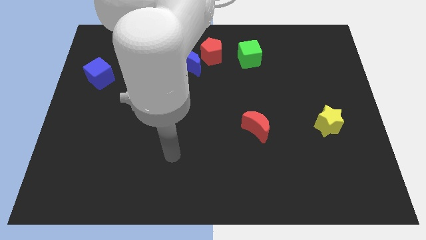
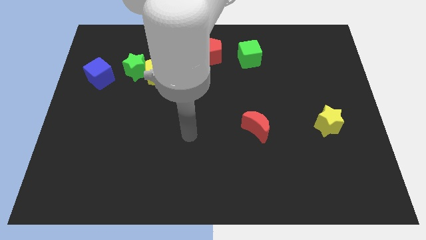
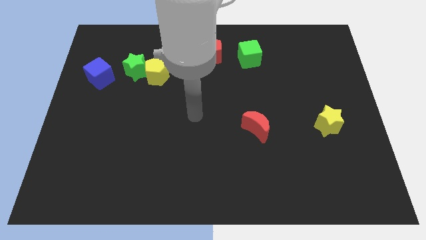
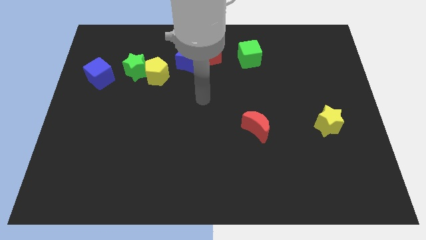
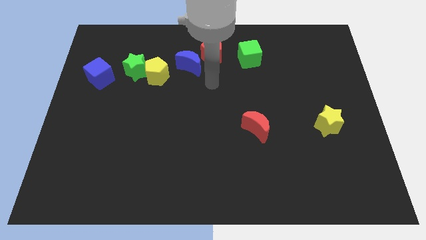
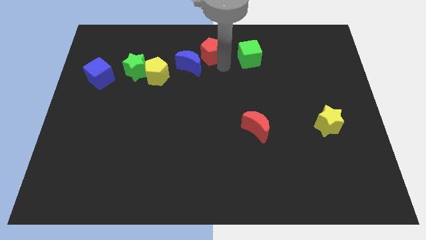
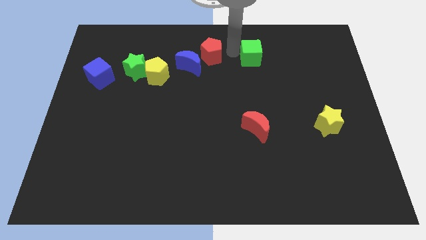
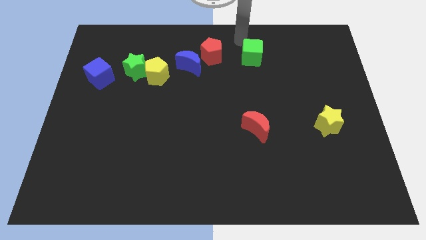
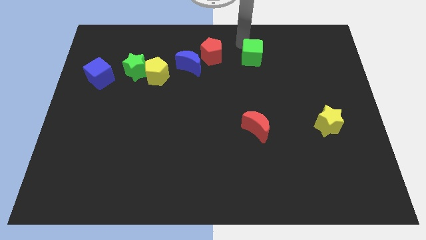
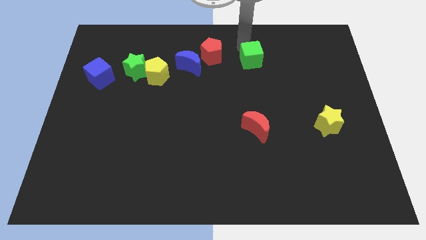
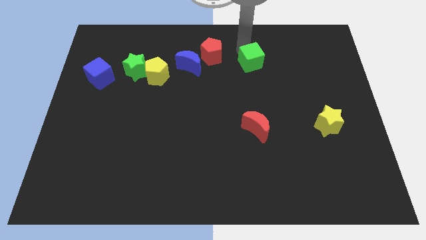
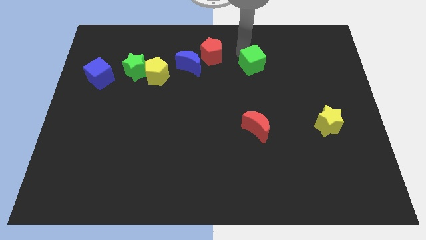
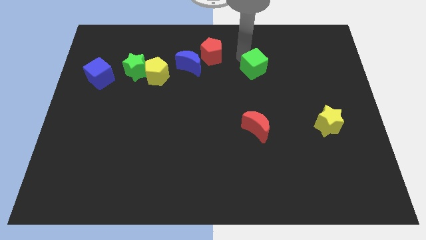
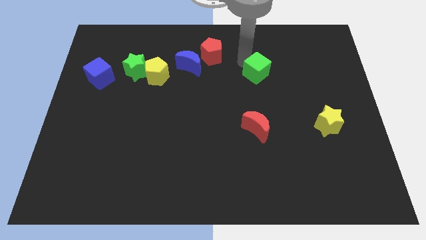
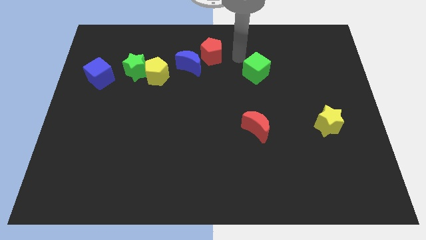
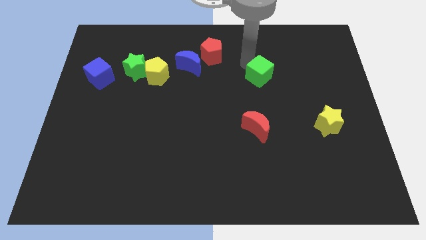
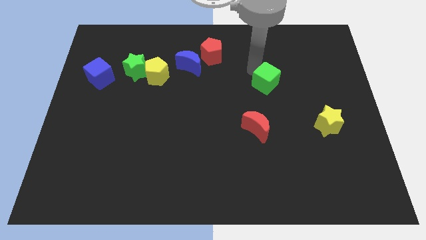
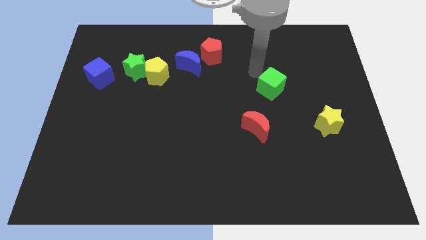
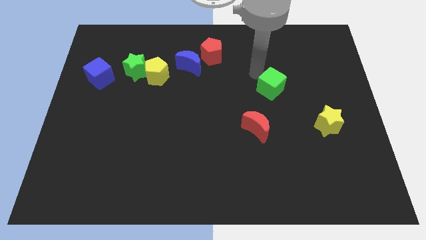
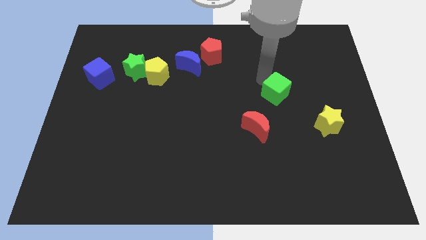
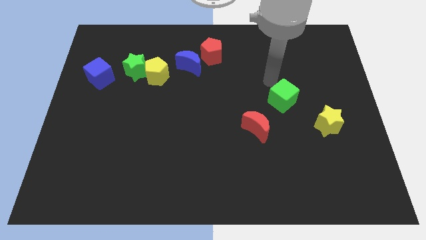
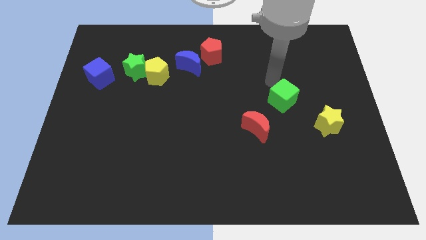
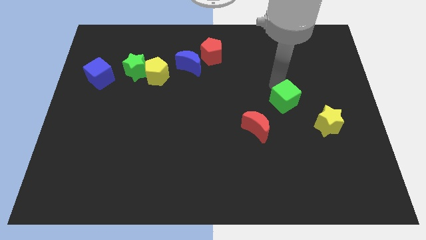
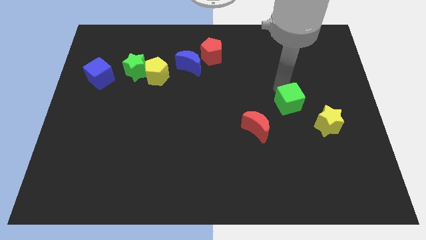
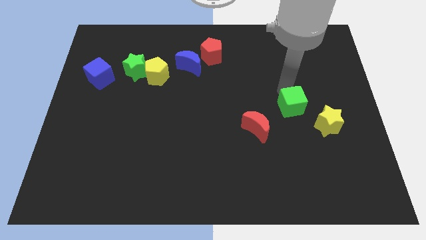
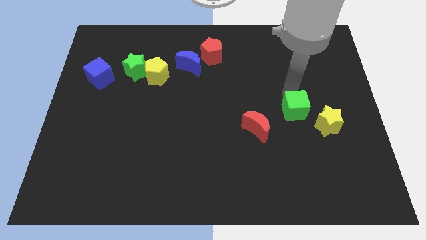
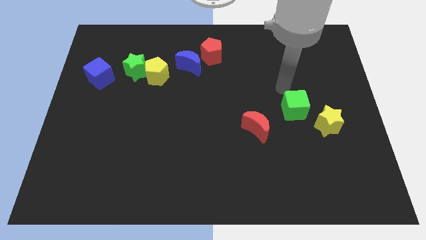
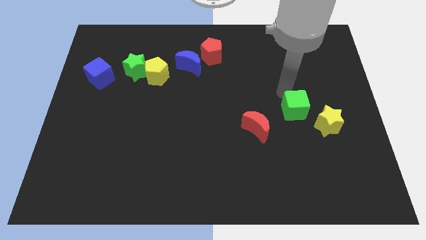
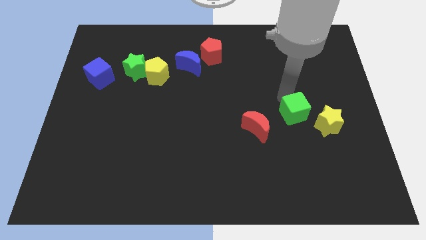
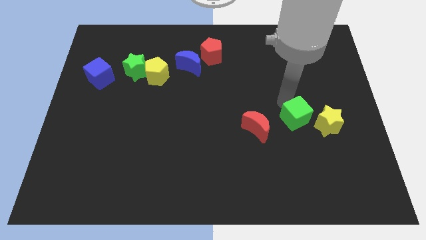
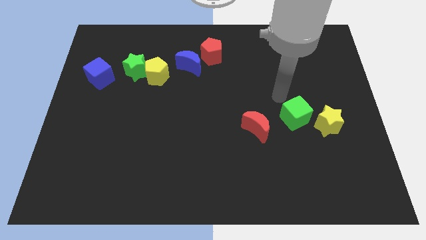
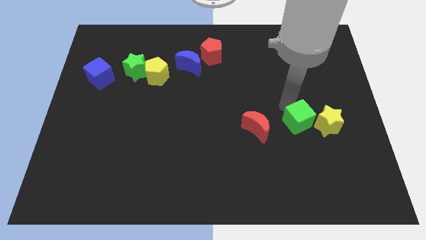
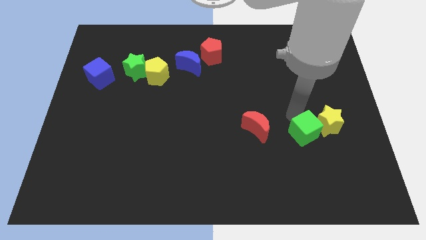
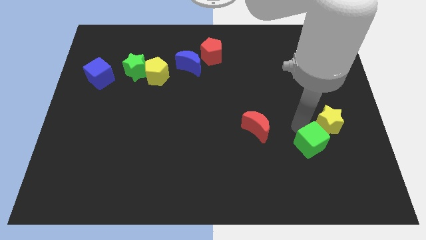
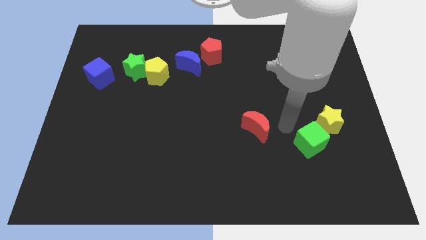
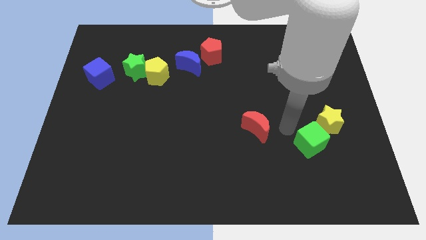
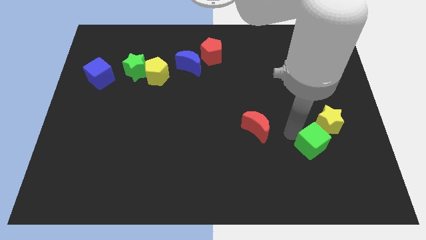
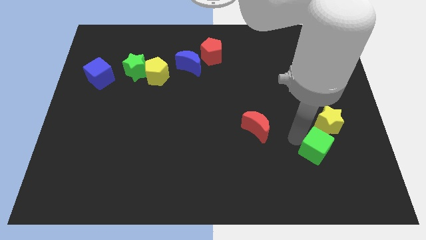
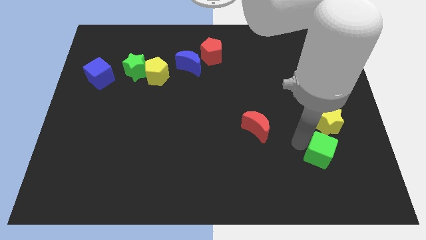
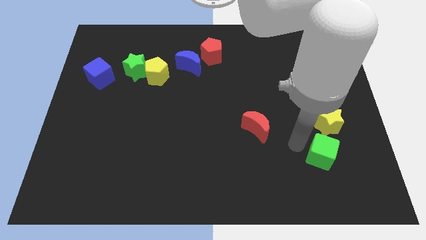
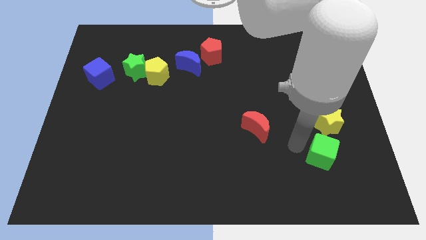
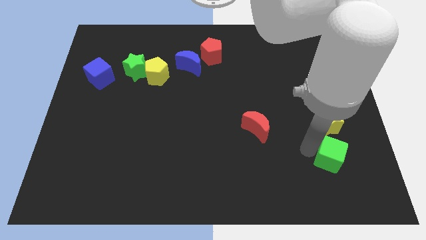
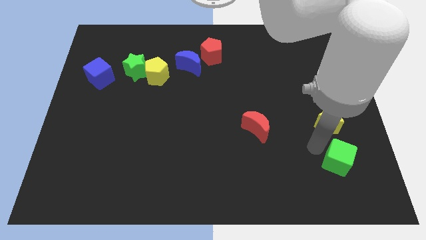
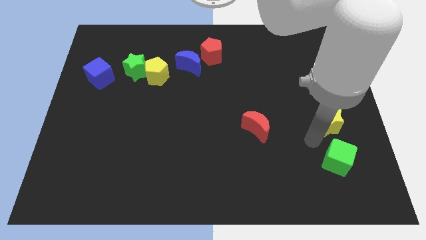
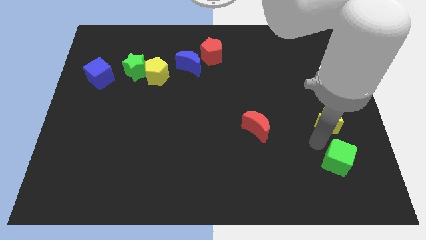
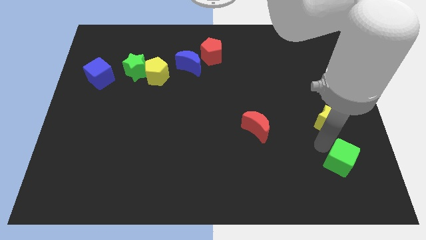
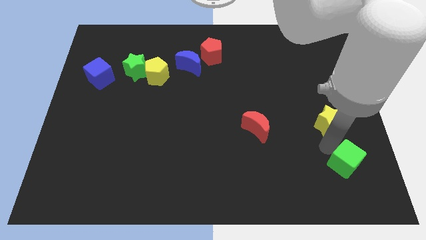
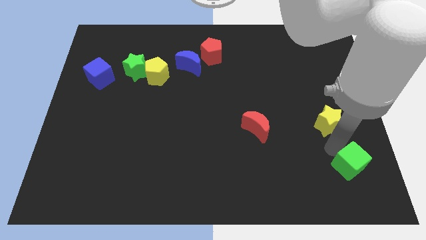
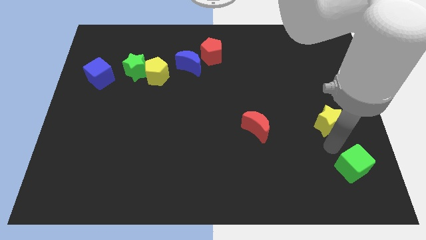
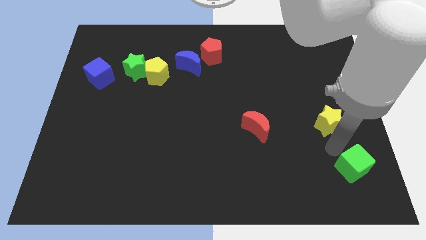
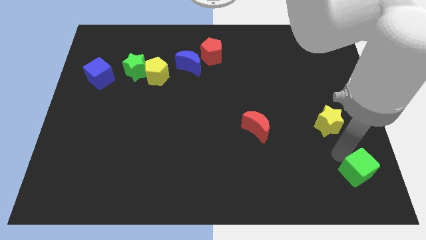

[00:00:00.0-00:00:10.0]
push the green cube to the bottom right corner

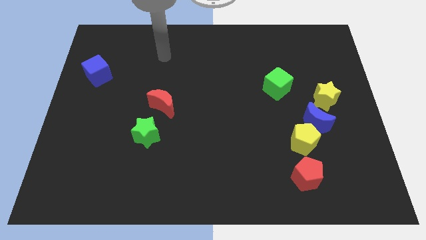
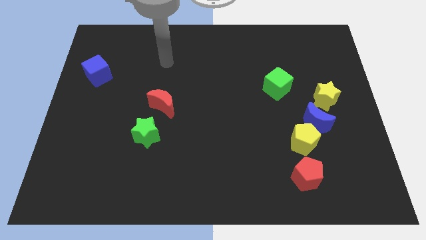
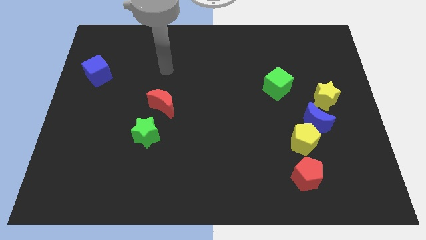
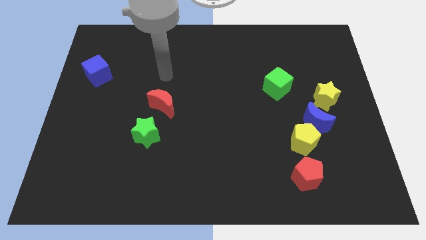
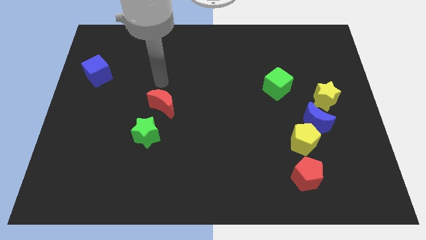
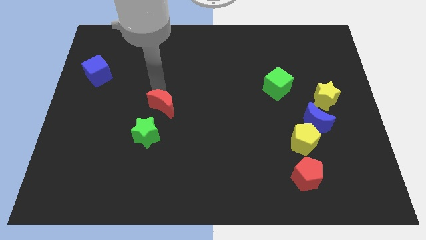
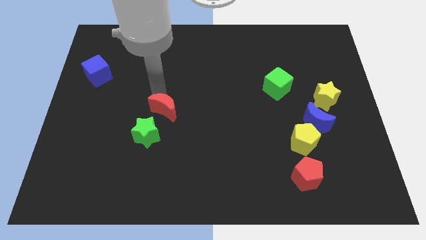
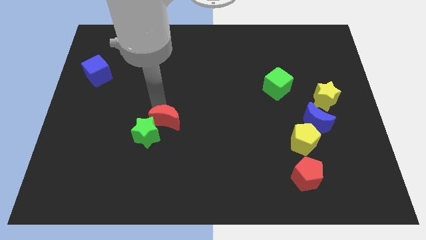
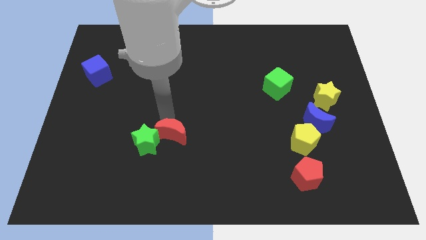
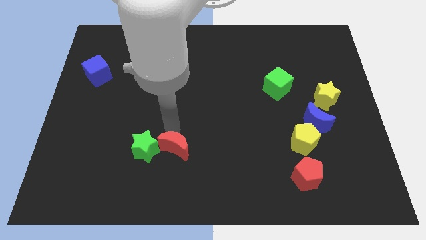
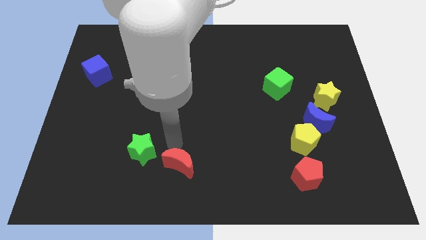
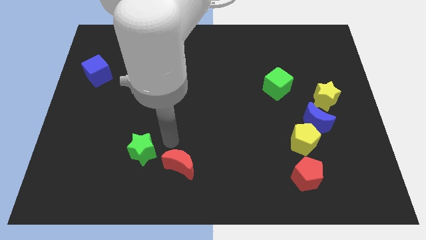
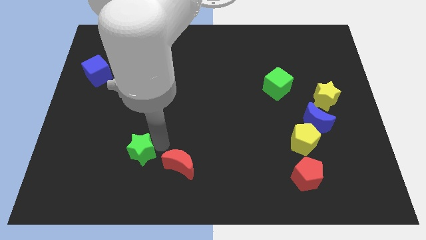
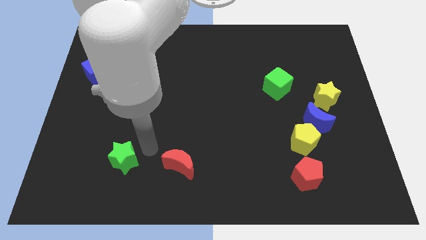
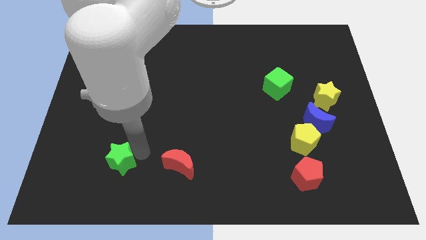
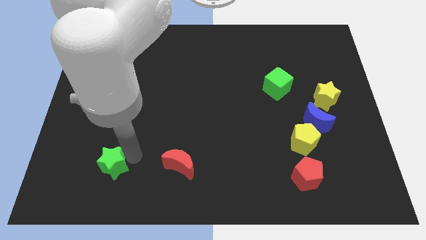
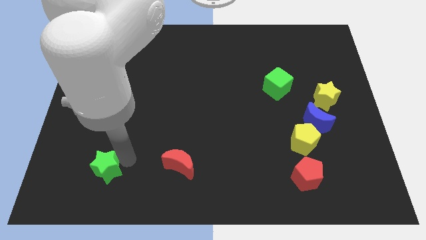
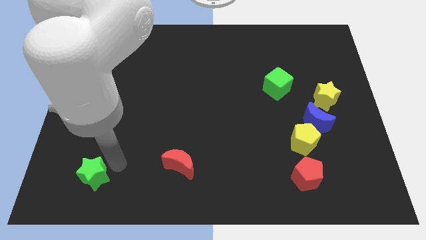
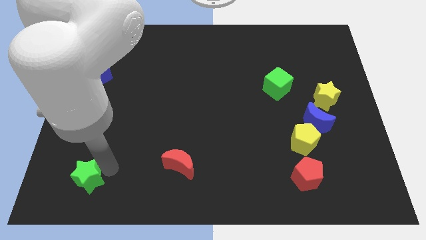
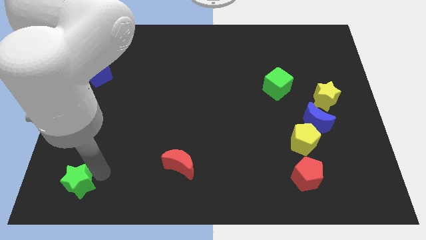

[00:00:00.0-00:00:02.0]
slide the green star to the bottom left

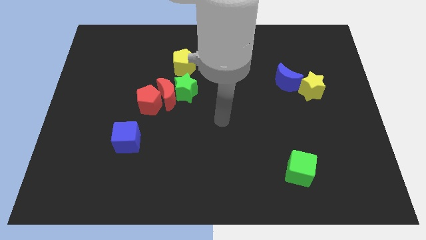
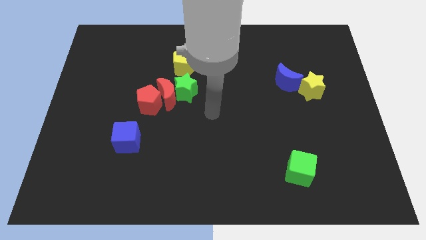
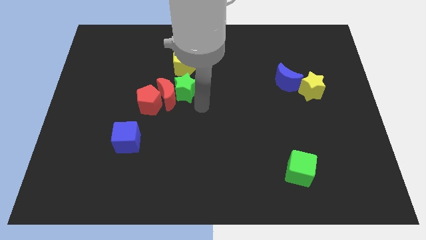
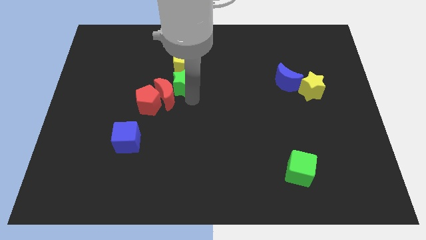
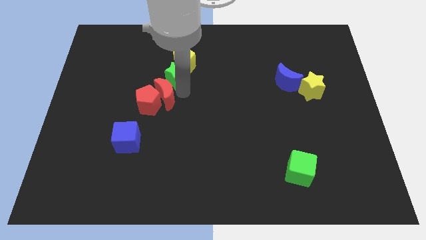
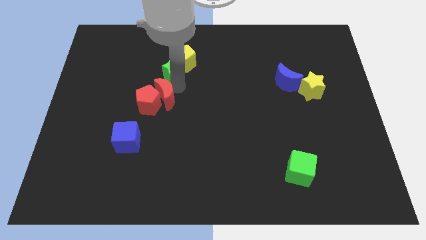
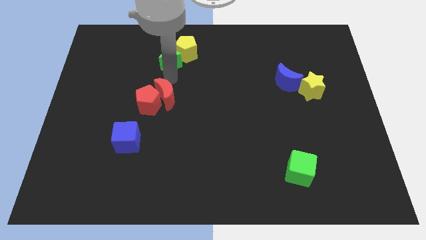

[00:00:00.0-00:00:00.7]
move the yellow pentagon to the top side
